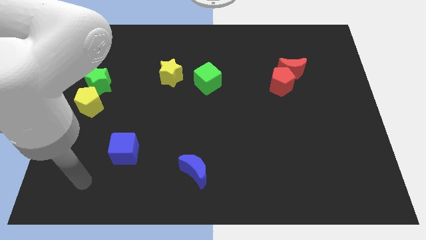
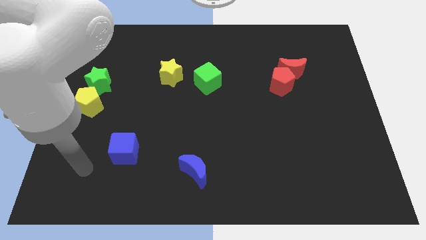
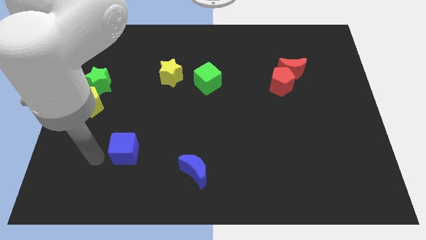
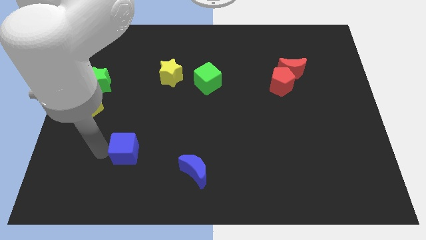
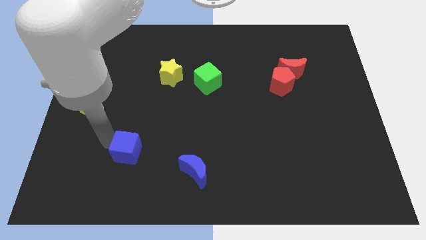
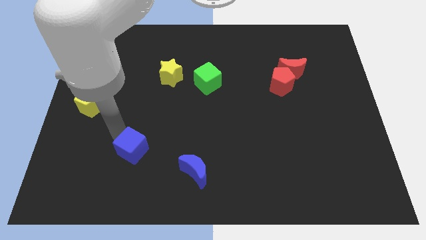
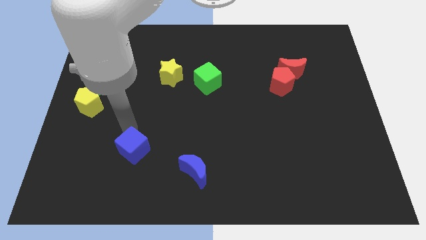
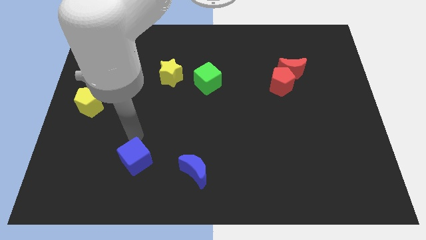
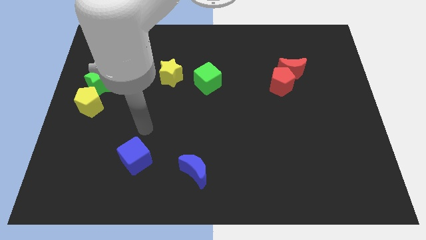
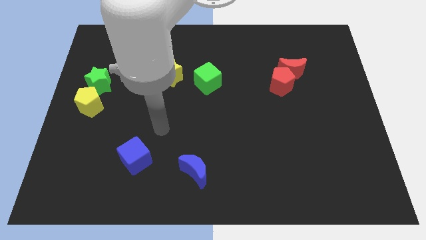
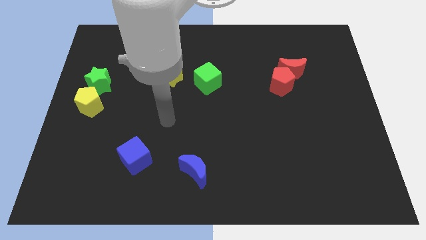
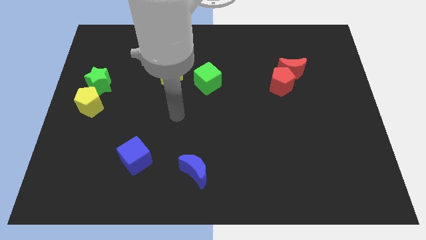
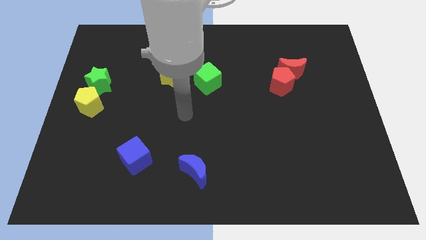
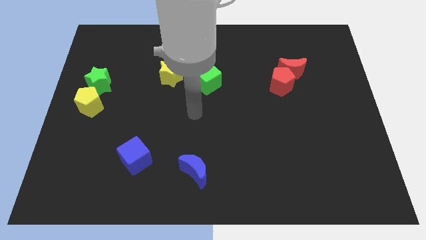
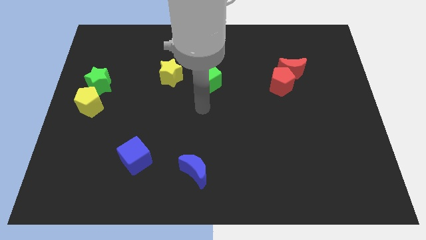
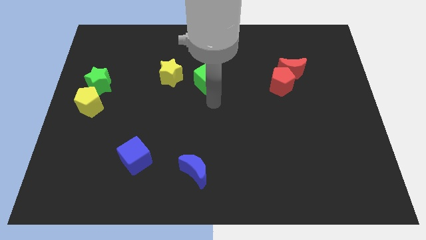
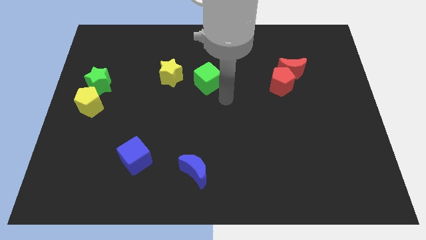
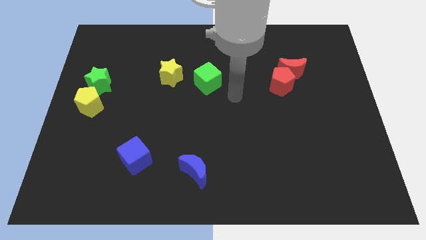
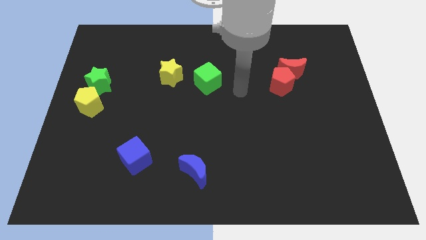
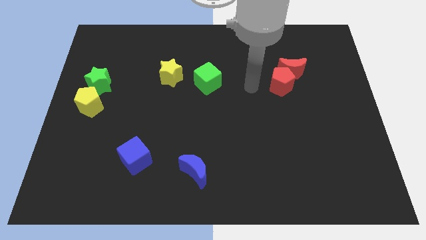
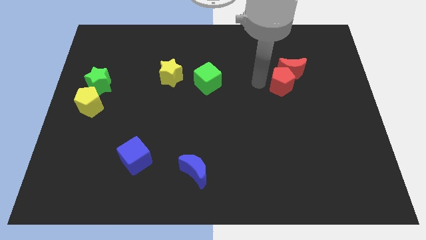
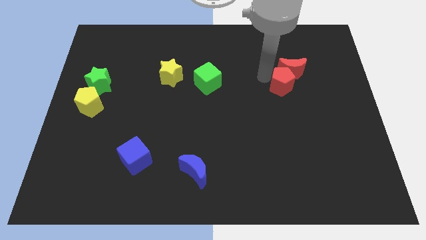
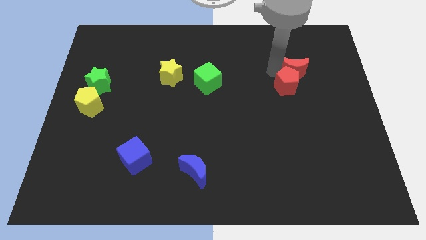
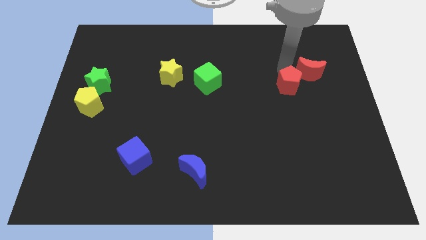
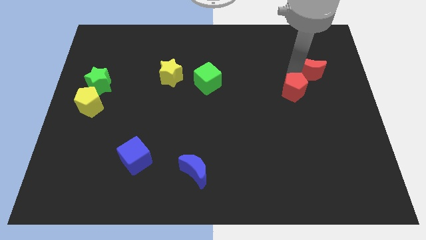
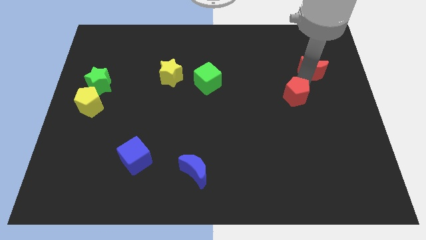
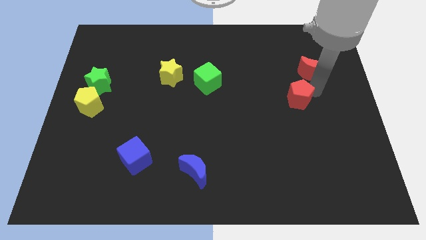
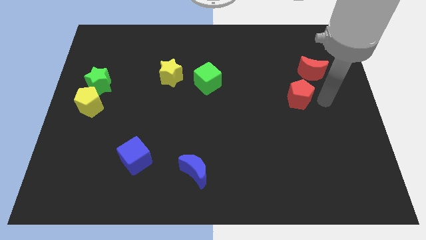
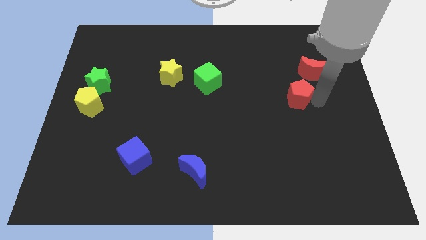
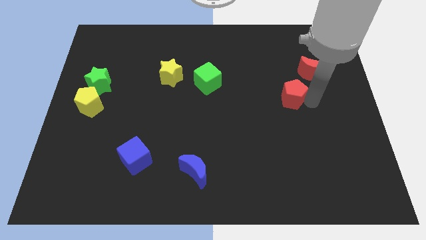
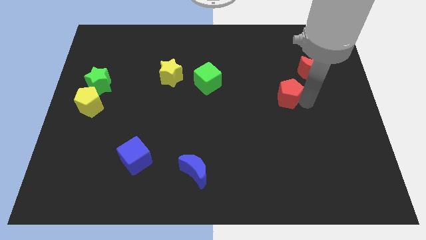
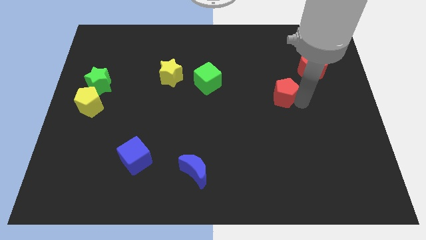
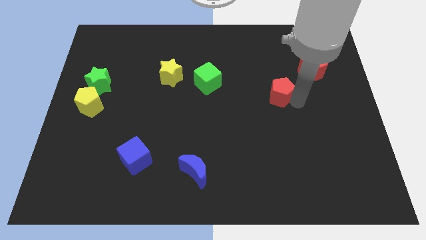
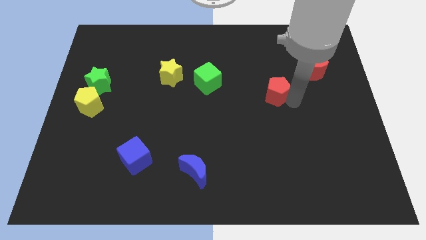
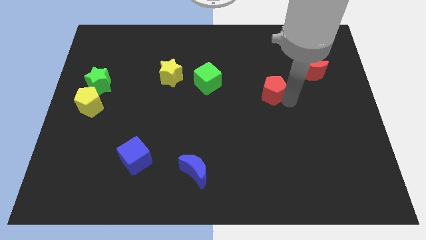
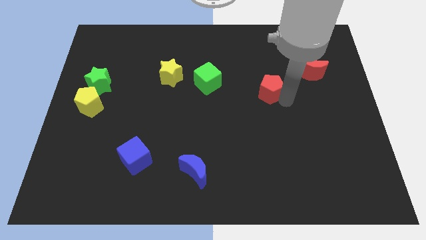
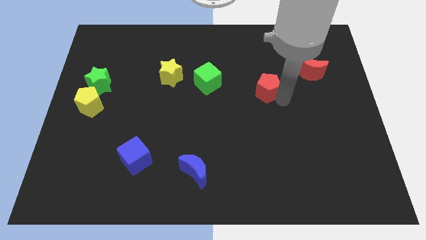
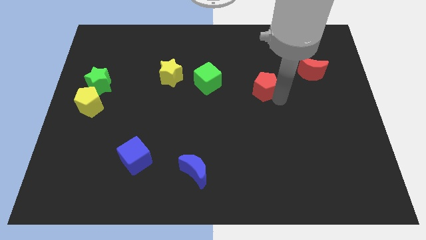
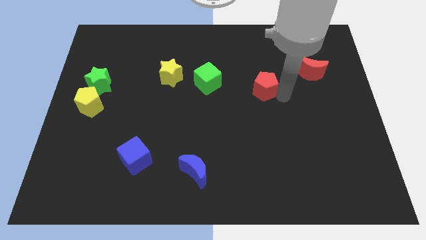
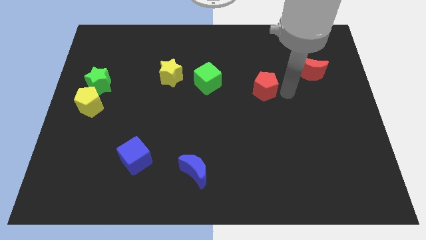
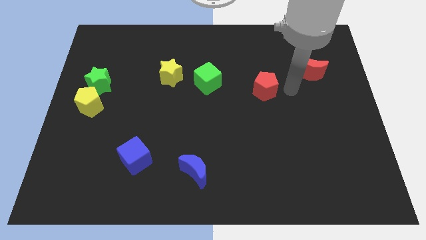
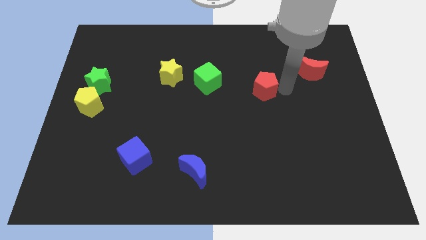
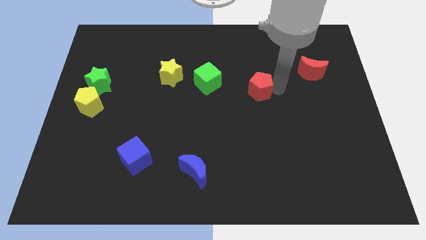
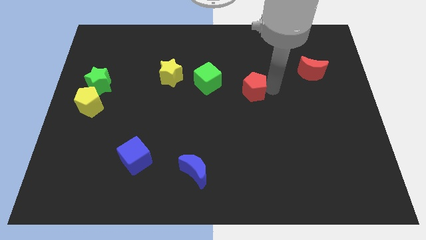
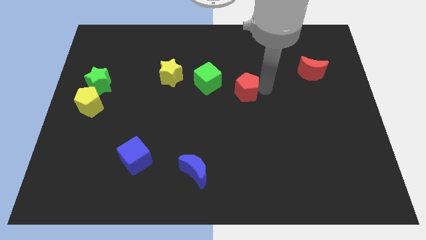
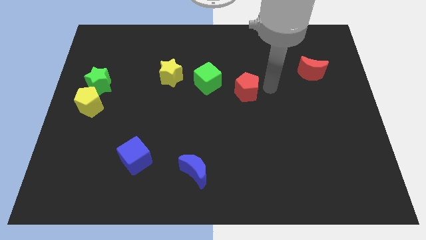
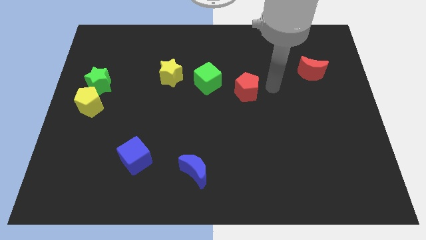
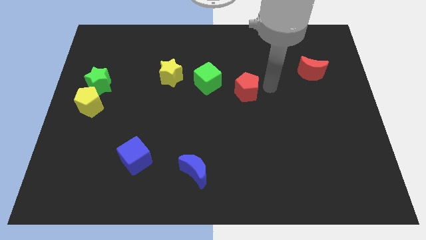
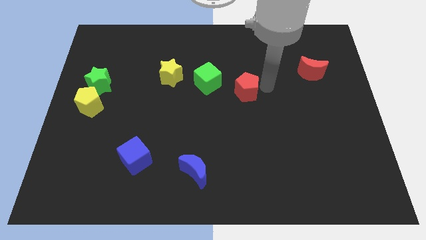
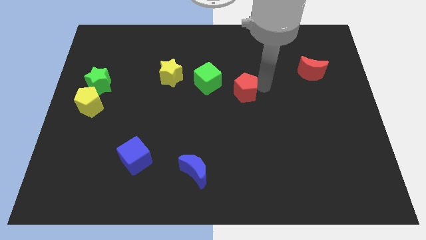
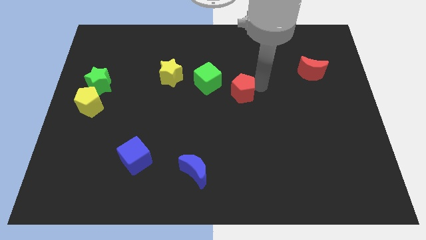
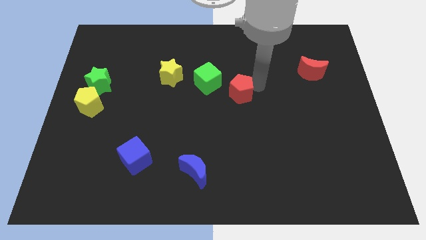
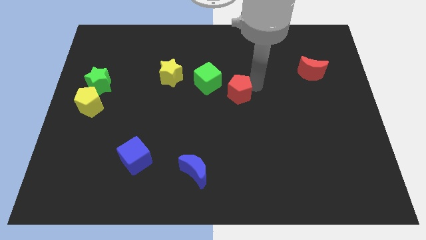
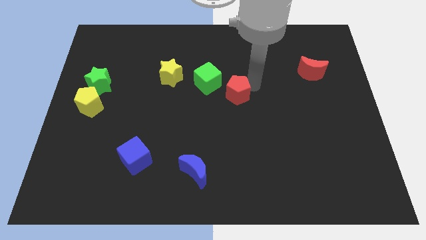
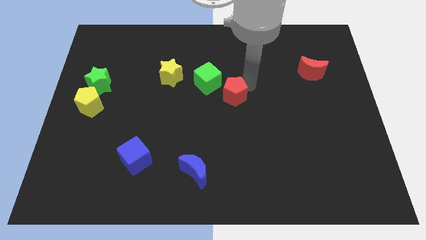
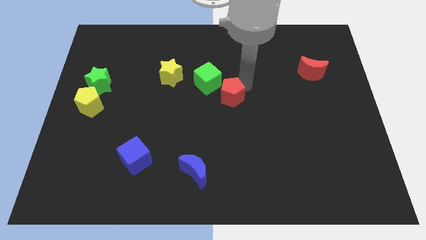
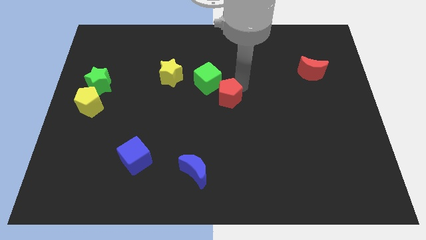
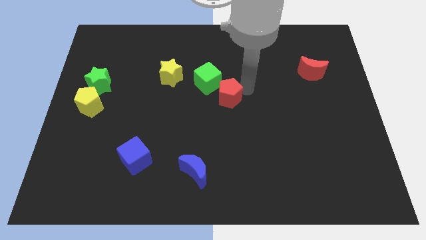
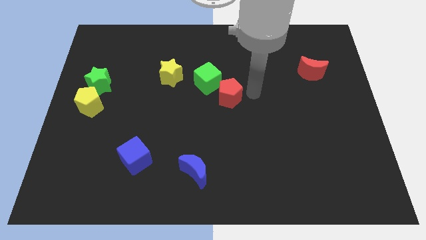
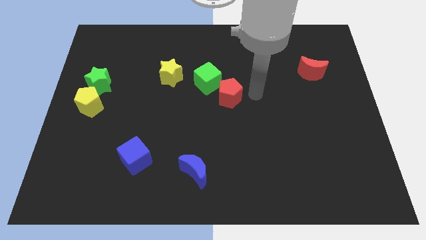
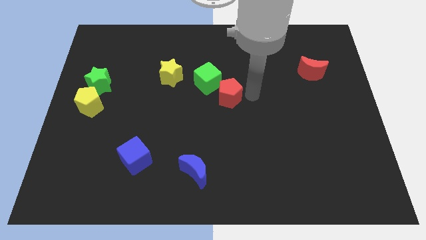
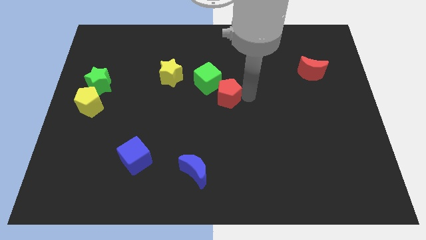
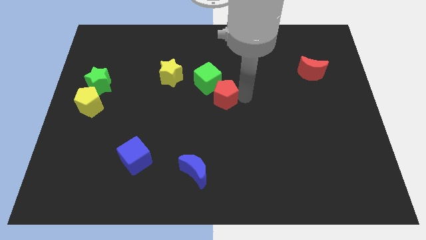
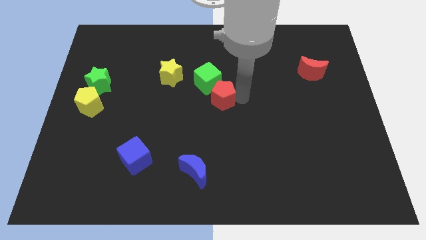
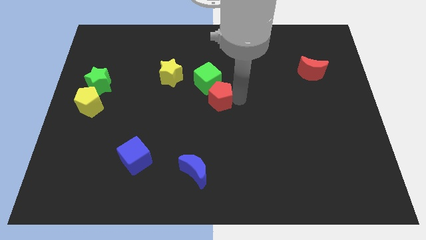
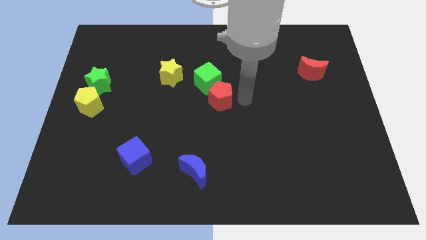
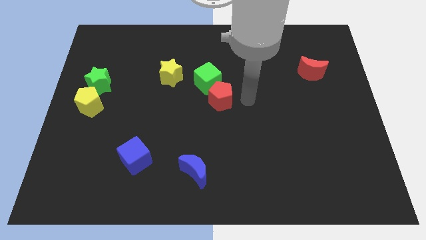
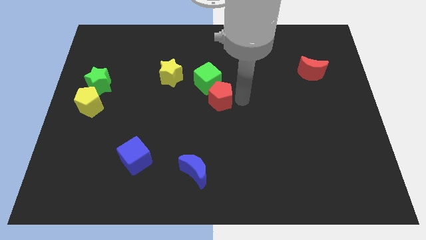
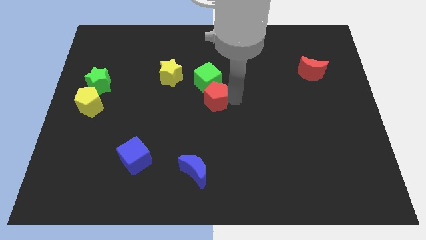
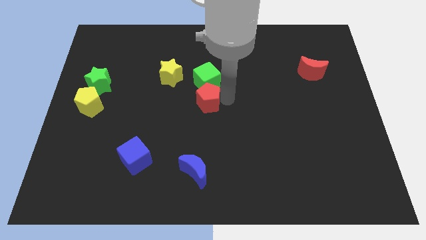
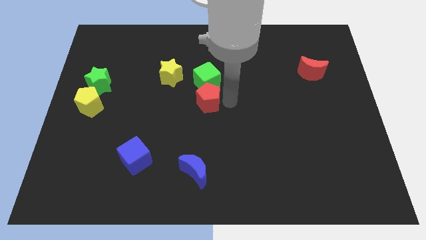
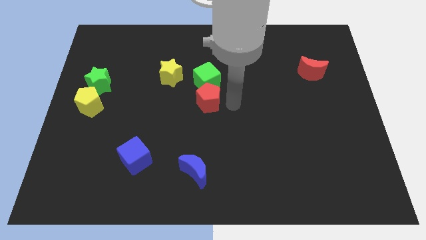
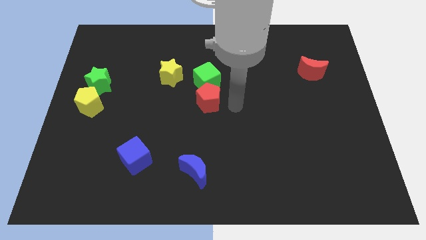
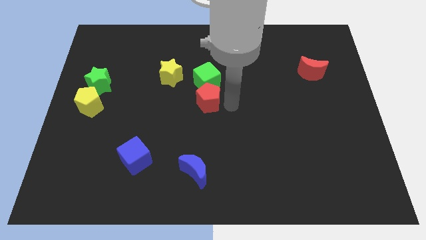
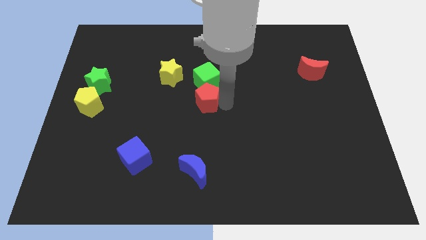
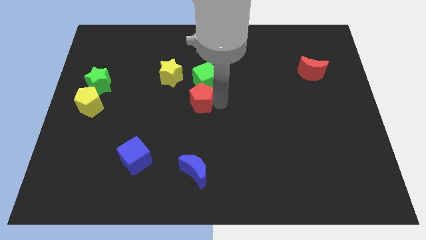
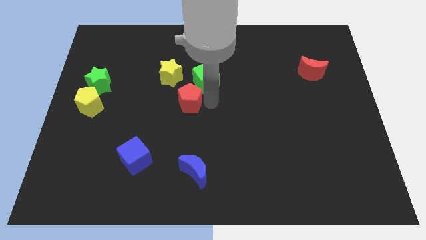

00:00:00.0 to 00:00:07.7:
move the red pentagon left
